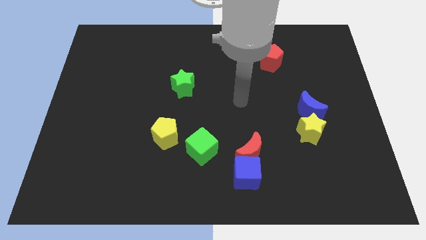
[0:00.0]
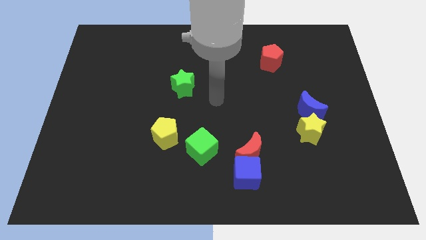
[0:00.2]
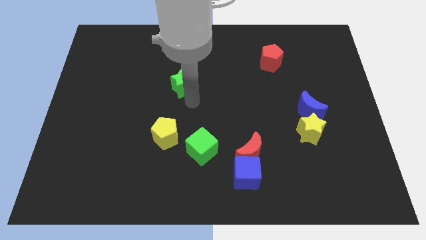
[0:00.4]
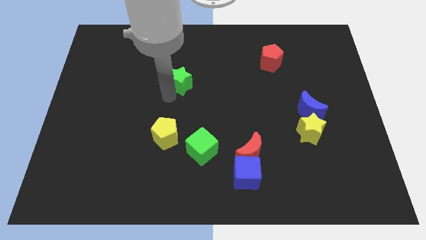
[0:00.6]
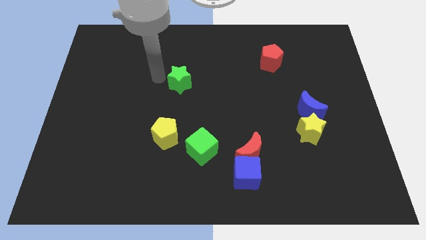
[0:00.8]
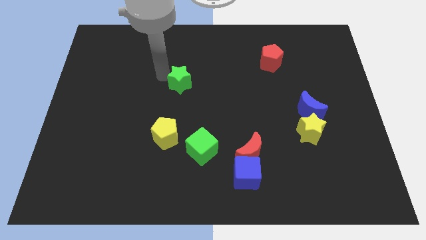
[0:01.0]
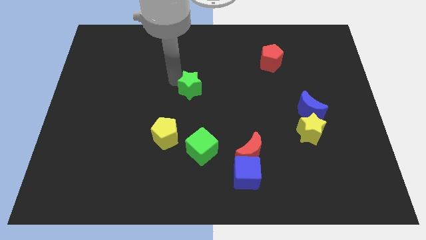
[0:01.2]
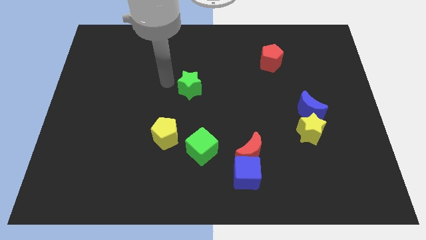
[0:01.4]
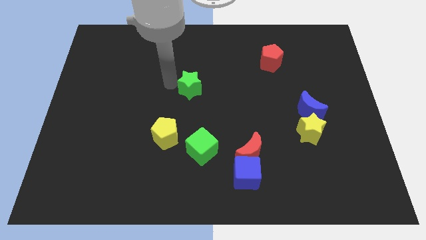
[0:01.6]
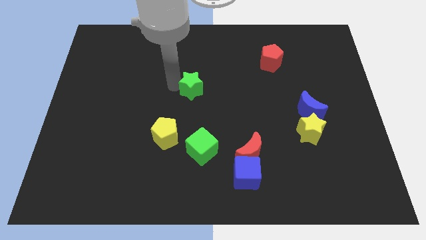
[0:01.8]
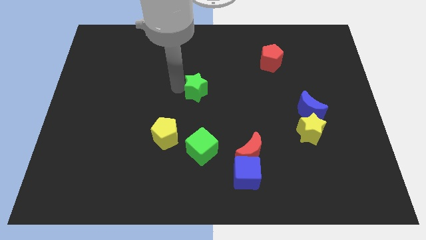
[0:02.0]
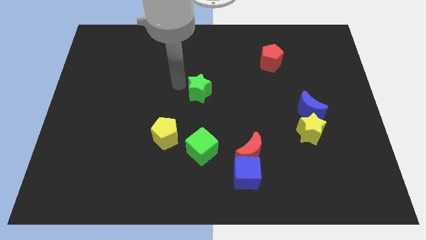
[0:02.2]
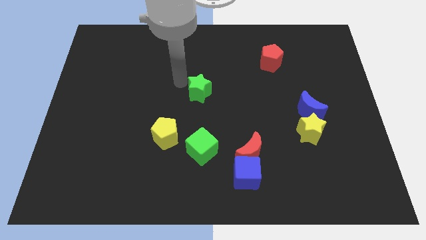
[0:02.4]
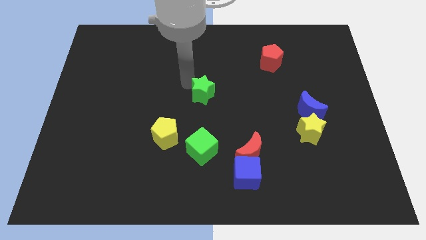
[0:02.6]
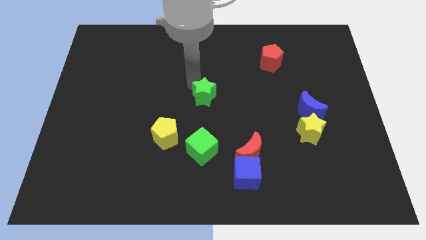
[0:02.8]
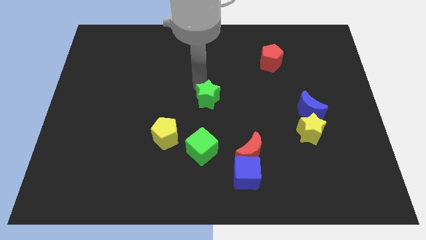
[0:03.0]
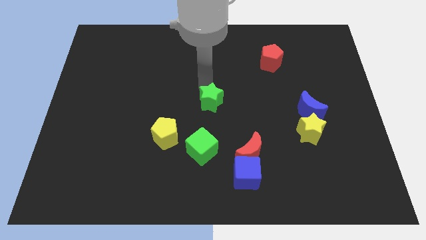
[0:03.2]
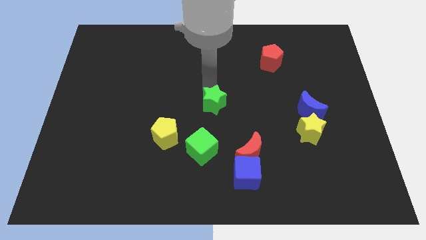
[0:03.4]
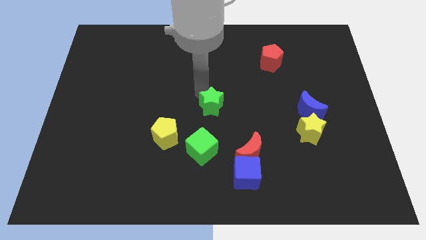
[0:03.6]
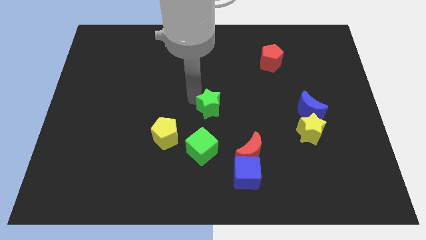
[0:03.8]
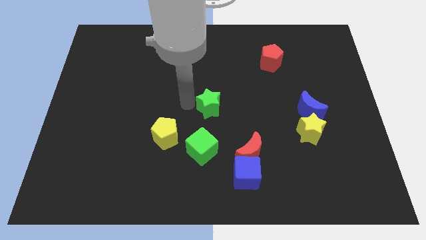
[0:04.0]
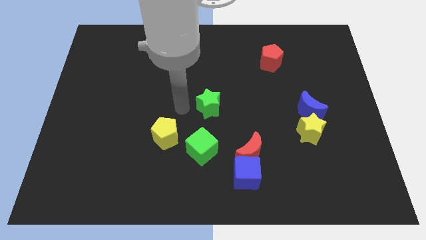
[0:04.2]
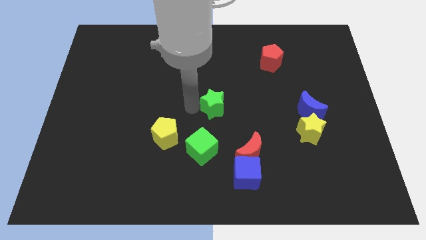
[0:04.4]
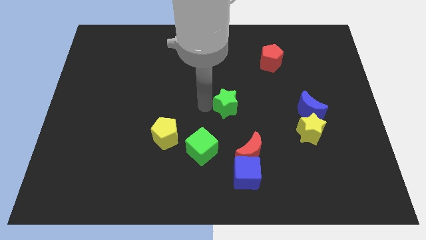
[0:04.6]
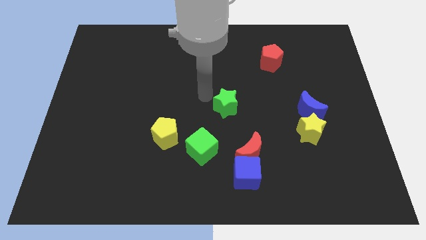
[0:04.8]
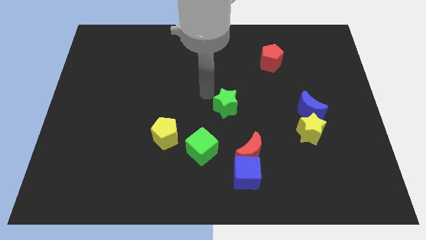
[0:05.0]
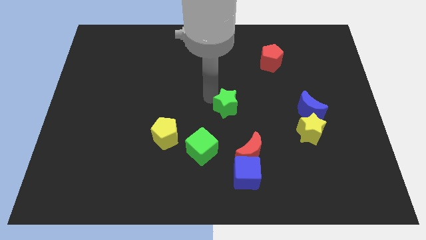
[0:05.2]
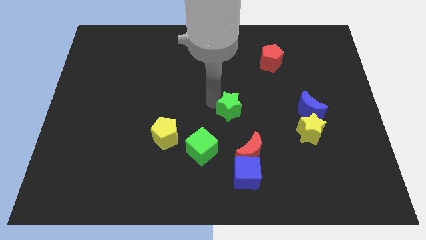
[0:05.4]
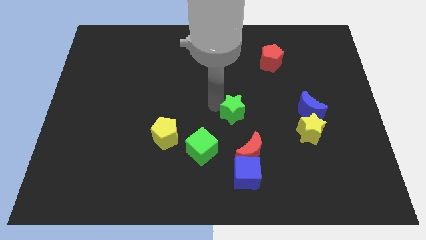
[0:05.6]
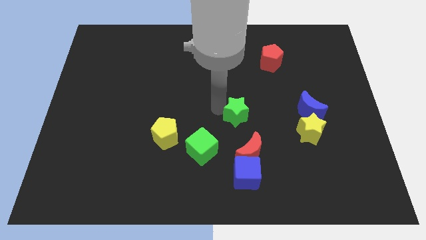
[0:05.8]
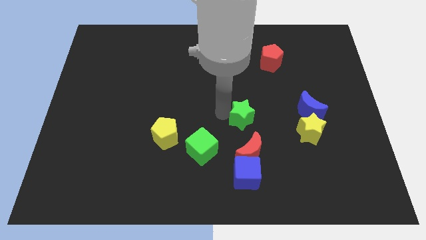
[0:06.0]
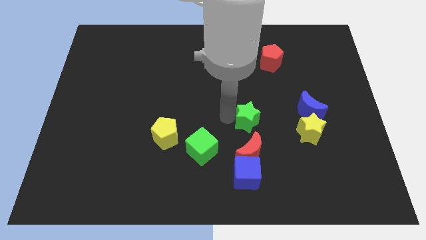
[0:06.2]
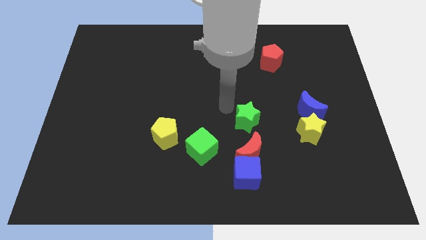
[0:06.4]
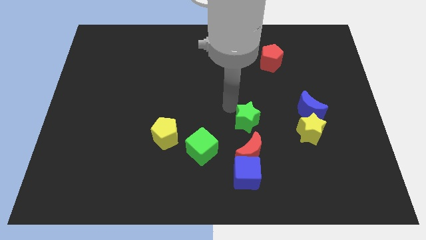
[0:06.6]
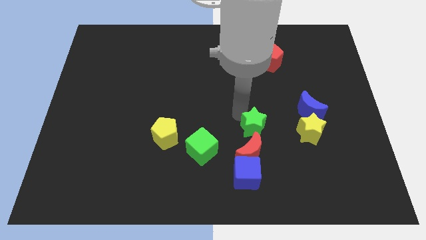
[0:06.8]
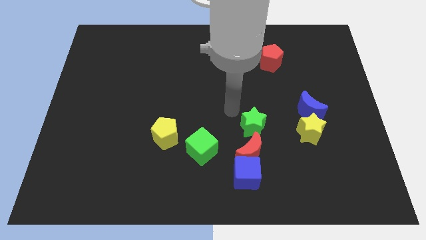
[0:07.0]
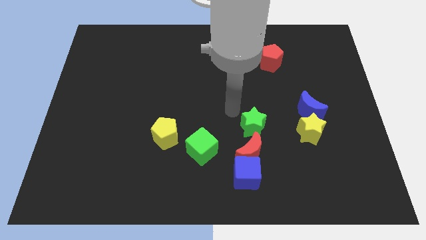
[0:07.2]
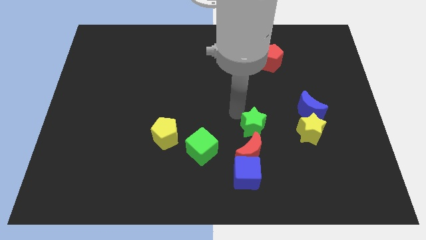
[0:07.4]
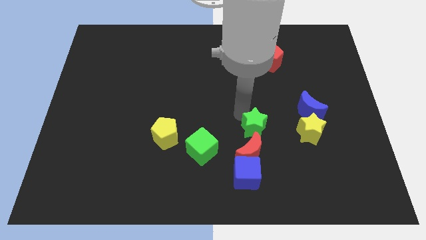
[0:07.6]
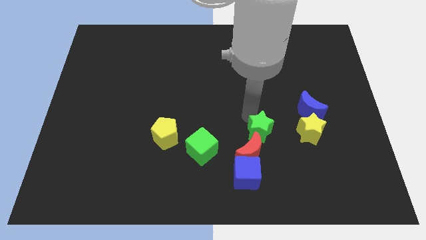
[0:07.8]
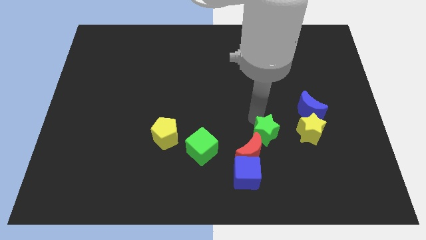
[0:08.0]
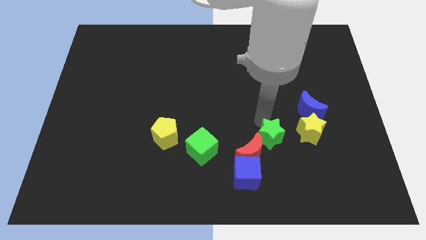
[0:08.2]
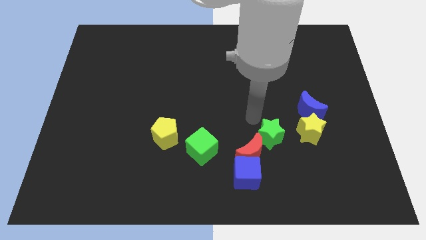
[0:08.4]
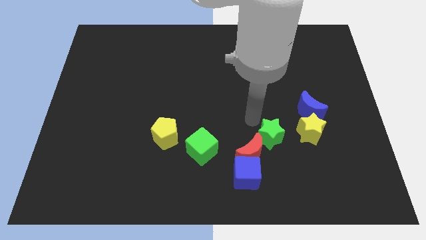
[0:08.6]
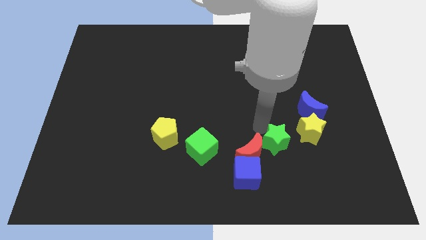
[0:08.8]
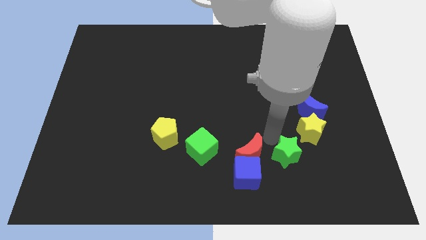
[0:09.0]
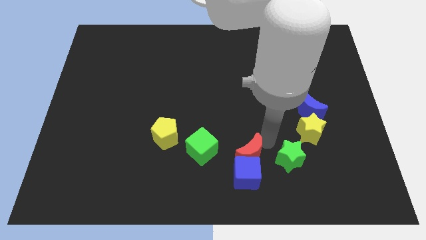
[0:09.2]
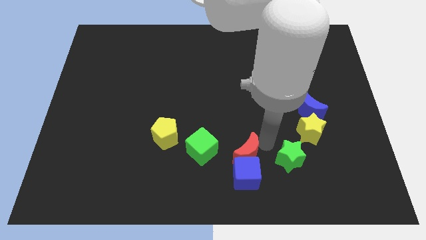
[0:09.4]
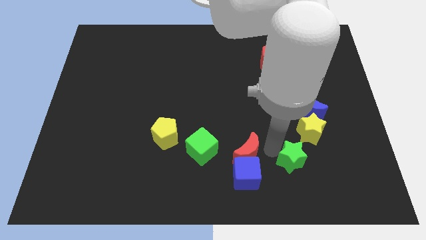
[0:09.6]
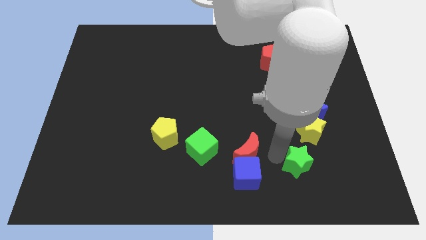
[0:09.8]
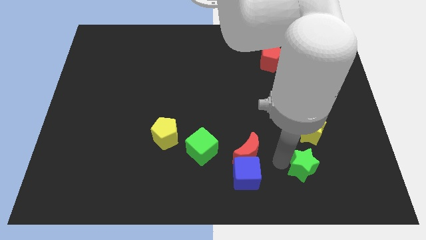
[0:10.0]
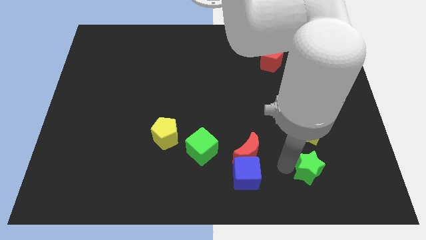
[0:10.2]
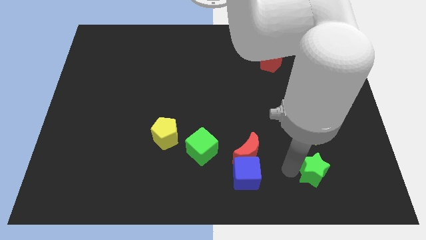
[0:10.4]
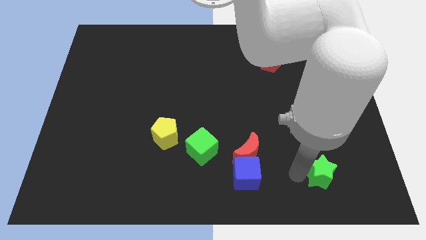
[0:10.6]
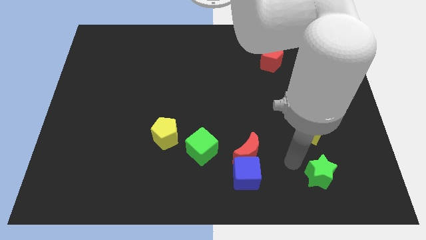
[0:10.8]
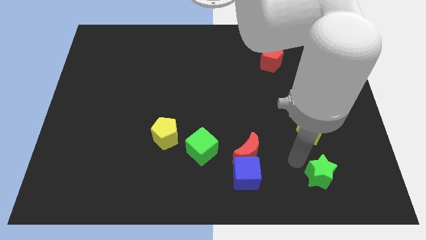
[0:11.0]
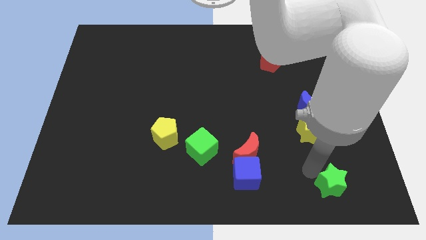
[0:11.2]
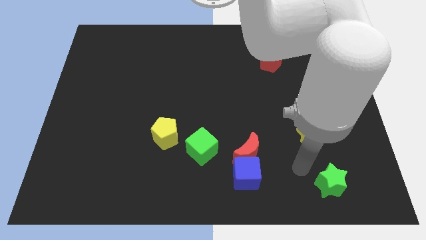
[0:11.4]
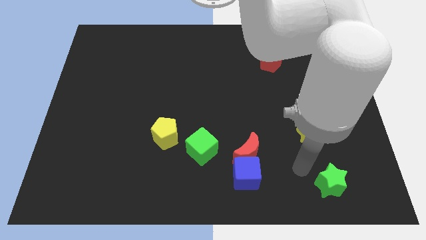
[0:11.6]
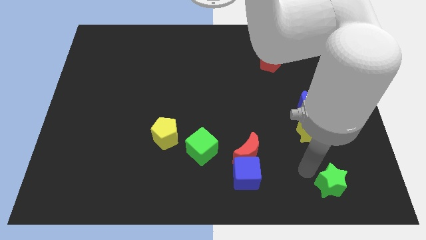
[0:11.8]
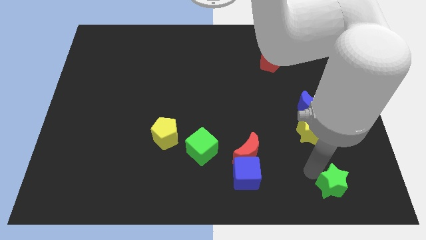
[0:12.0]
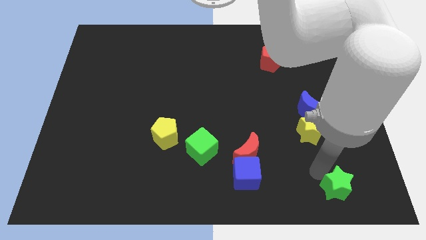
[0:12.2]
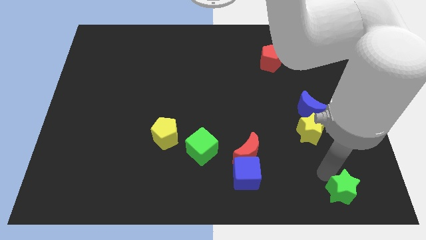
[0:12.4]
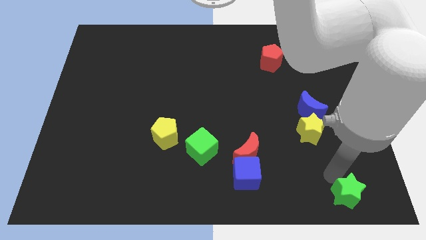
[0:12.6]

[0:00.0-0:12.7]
move the green star to the bottom right of the board

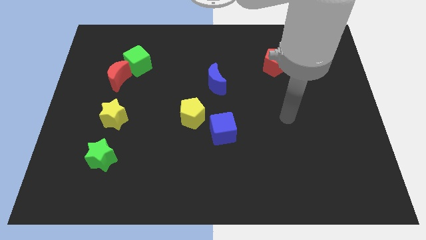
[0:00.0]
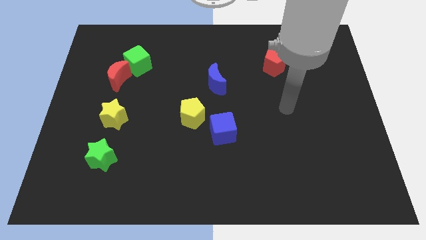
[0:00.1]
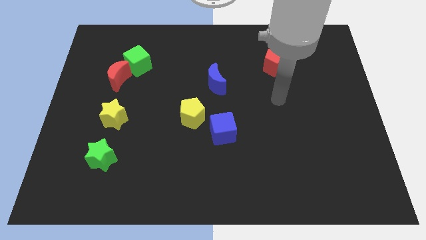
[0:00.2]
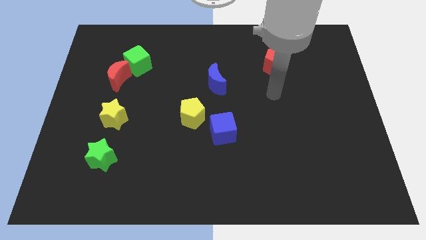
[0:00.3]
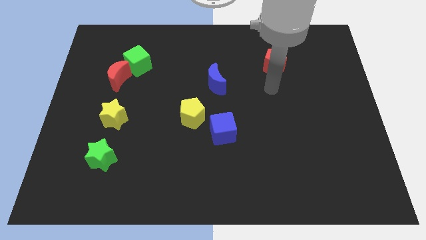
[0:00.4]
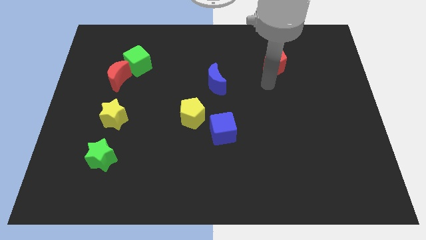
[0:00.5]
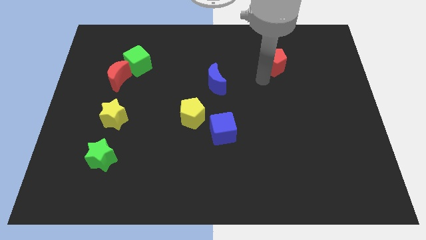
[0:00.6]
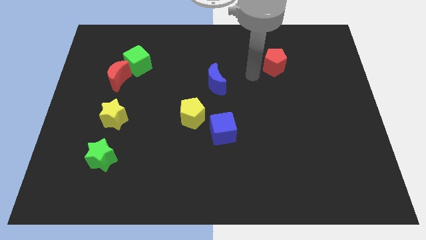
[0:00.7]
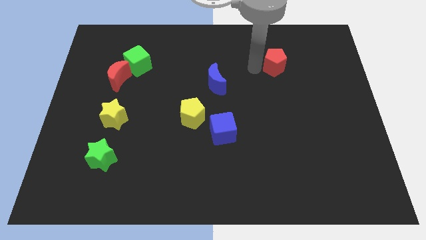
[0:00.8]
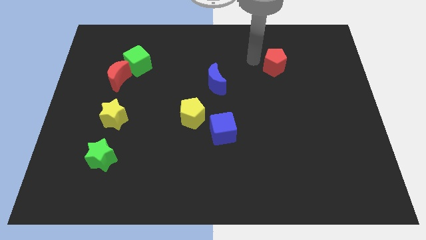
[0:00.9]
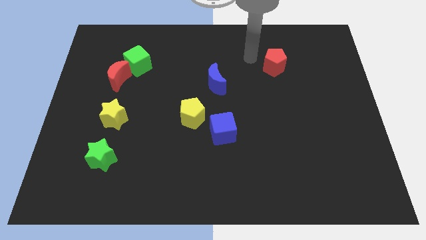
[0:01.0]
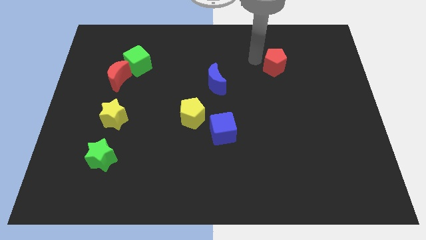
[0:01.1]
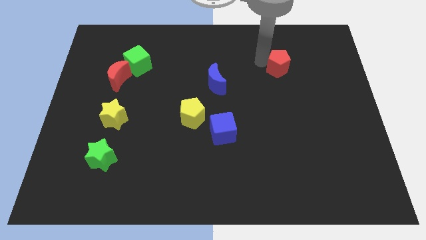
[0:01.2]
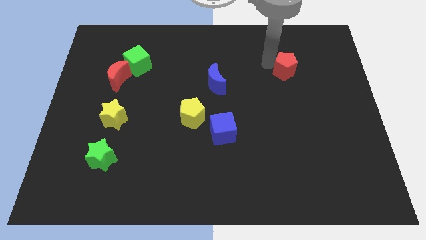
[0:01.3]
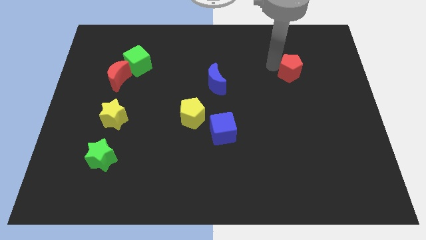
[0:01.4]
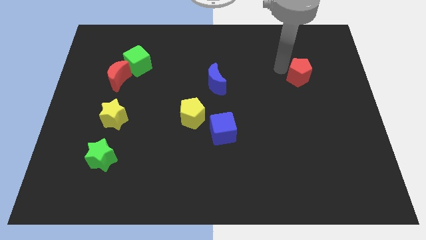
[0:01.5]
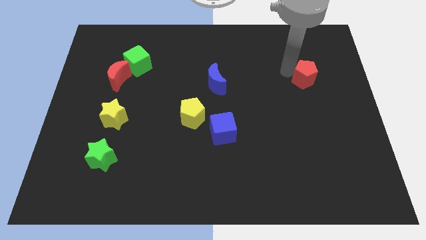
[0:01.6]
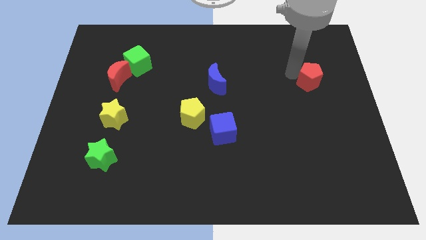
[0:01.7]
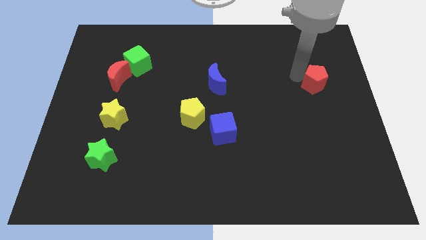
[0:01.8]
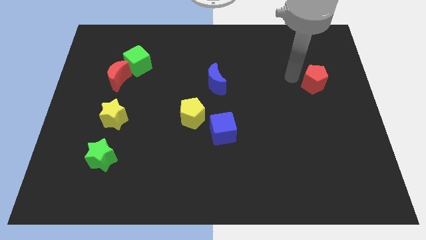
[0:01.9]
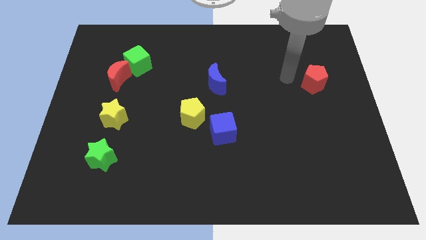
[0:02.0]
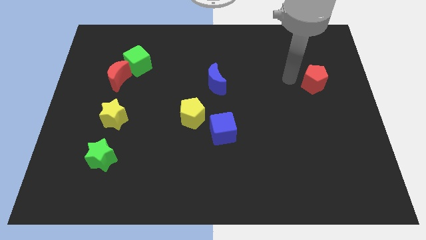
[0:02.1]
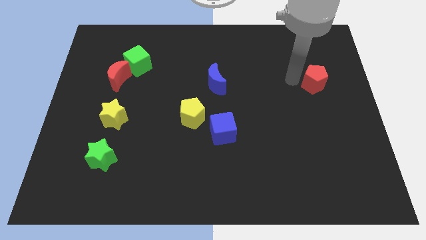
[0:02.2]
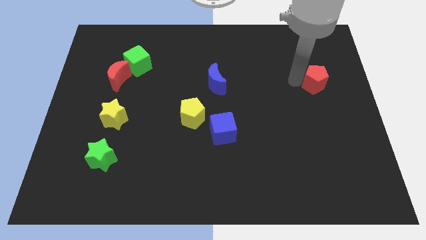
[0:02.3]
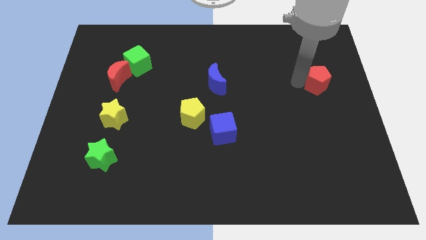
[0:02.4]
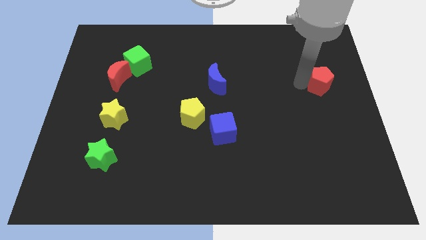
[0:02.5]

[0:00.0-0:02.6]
slide the red pentagon to the right side of the board
